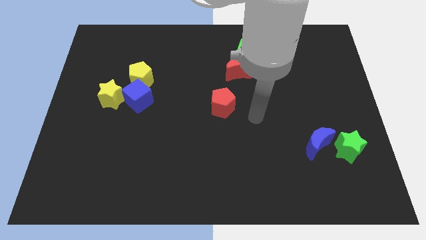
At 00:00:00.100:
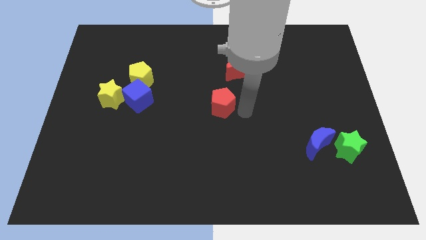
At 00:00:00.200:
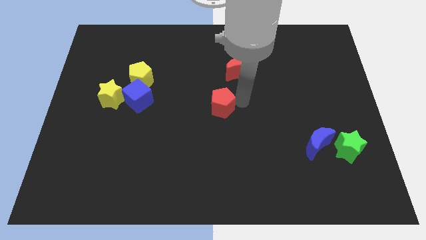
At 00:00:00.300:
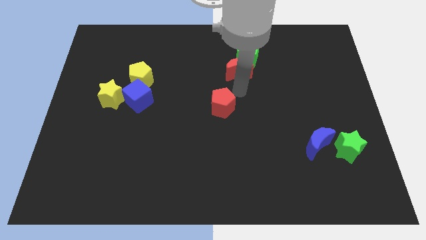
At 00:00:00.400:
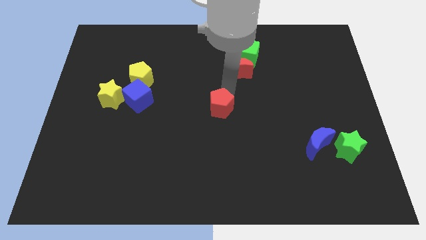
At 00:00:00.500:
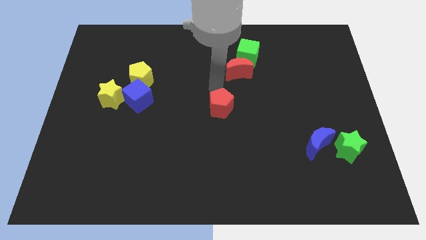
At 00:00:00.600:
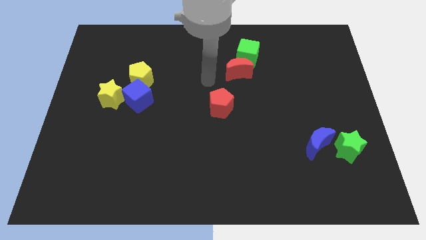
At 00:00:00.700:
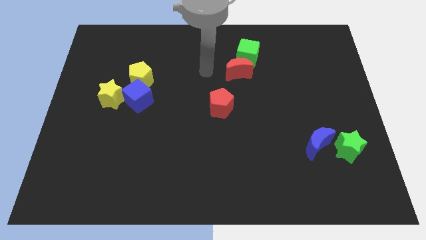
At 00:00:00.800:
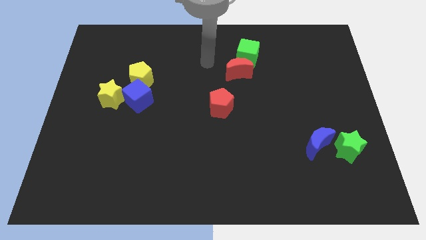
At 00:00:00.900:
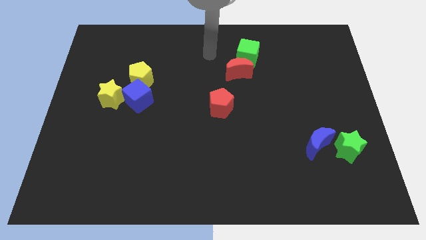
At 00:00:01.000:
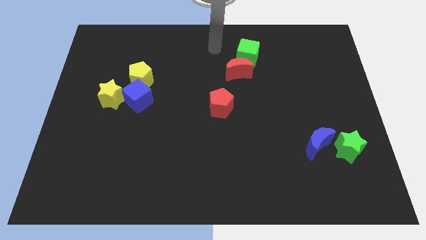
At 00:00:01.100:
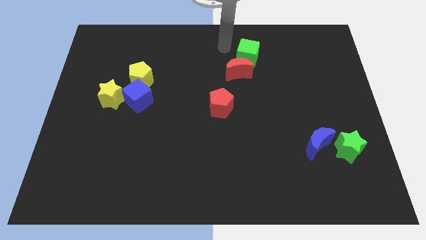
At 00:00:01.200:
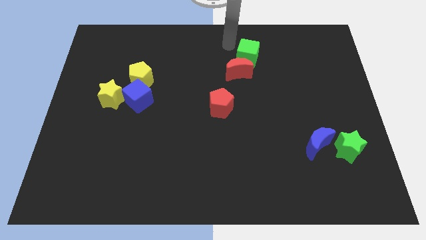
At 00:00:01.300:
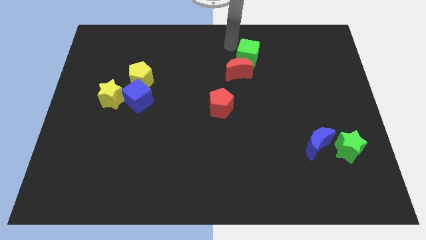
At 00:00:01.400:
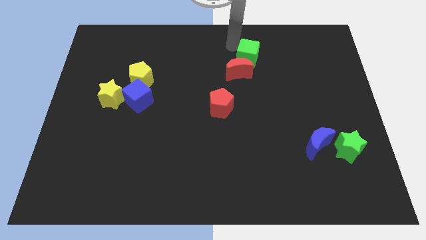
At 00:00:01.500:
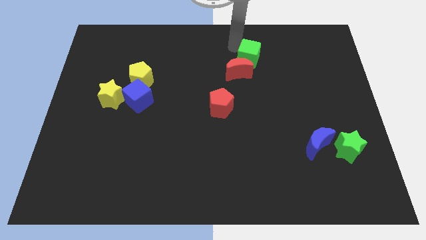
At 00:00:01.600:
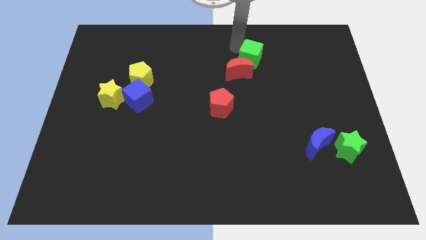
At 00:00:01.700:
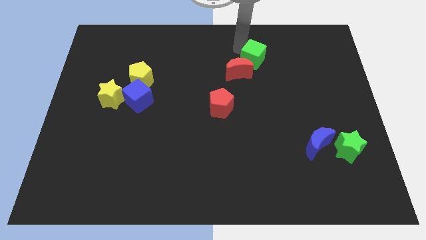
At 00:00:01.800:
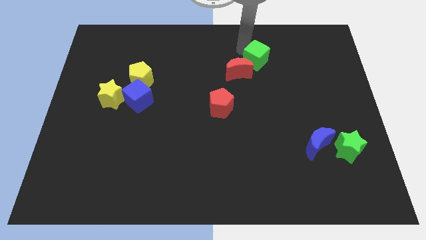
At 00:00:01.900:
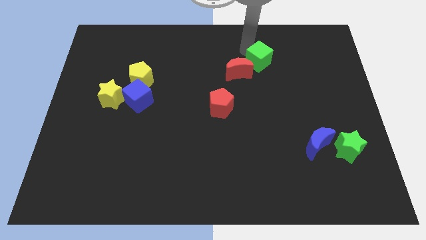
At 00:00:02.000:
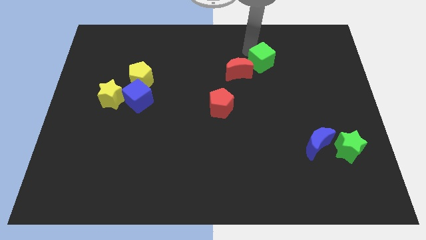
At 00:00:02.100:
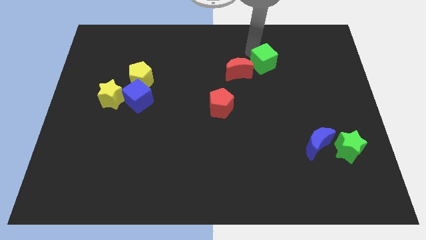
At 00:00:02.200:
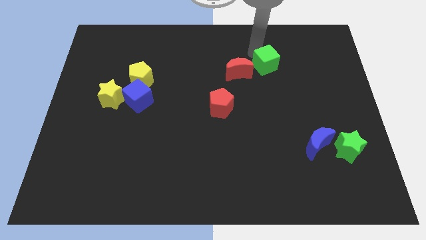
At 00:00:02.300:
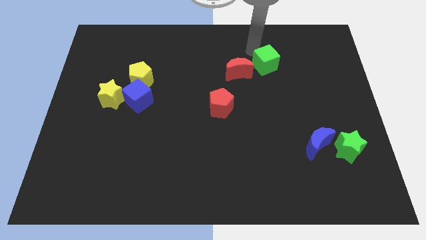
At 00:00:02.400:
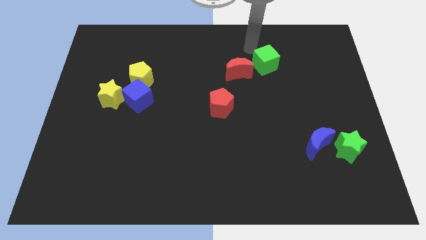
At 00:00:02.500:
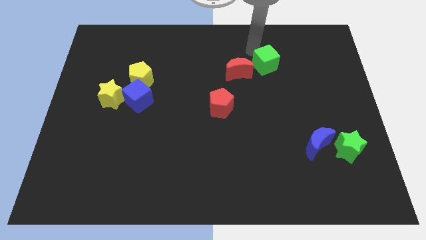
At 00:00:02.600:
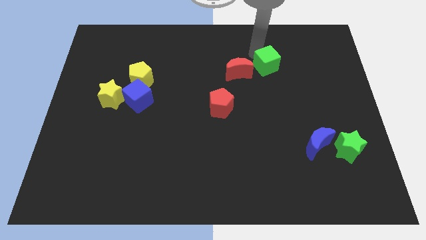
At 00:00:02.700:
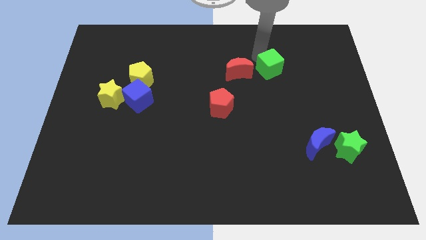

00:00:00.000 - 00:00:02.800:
push the green cube slightly down and then to the right

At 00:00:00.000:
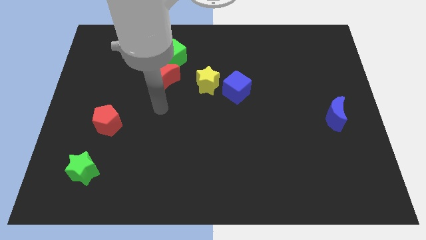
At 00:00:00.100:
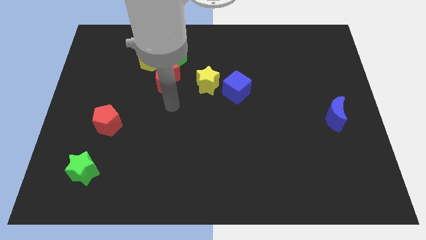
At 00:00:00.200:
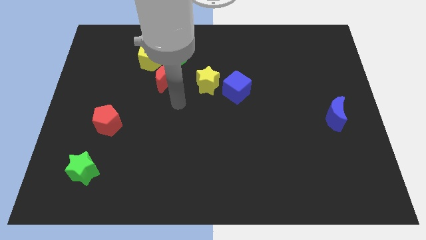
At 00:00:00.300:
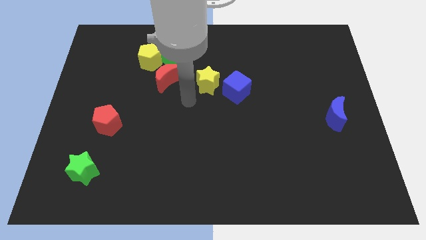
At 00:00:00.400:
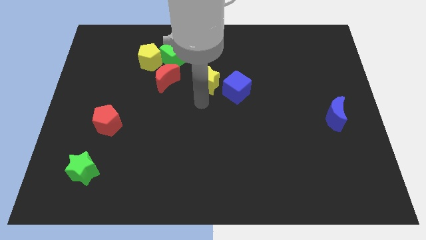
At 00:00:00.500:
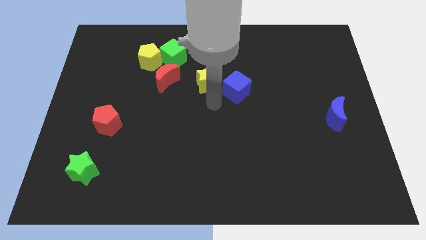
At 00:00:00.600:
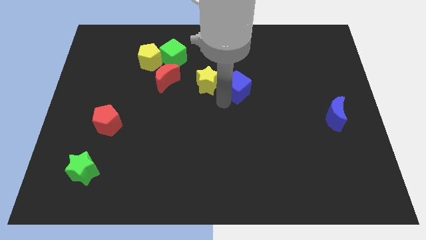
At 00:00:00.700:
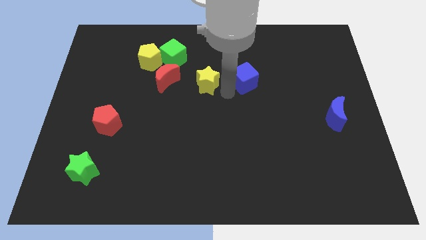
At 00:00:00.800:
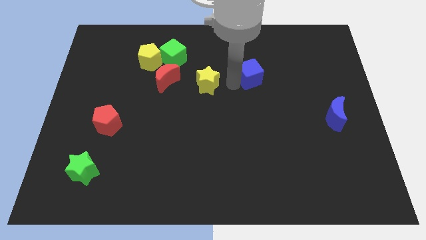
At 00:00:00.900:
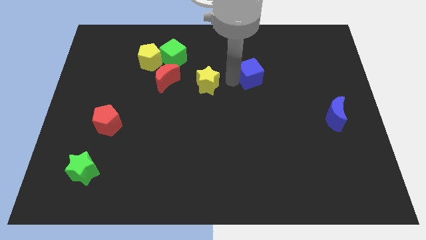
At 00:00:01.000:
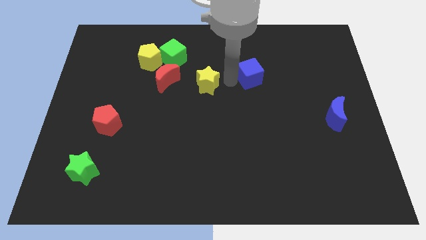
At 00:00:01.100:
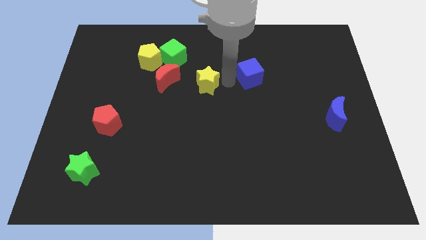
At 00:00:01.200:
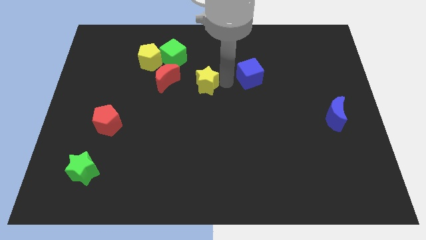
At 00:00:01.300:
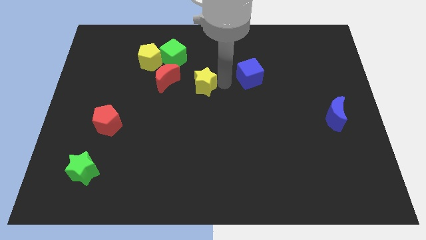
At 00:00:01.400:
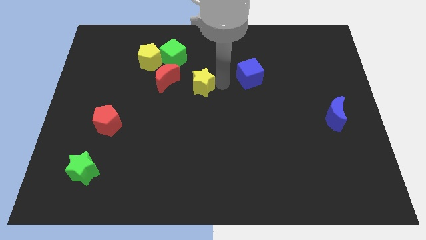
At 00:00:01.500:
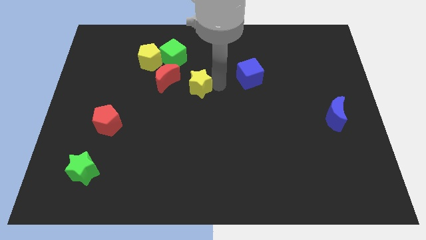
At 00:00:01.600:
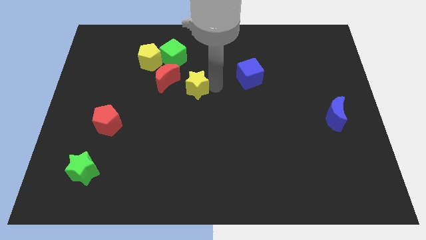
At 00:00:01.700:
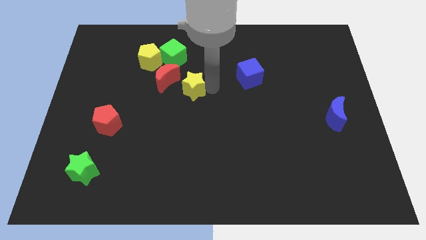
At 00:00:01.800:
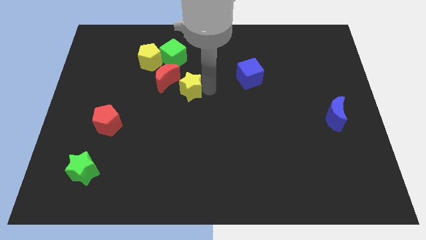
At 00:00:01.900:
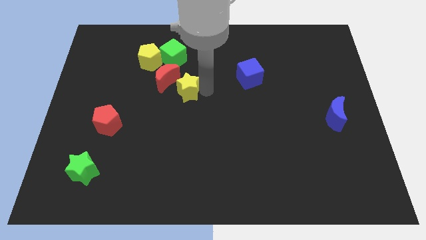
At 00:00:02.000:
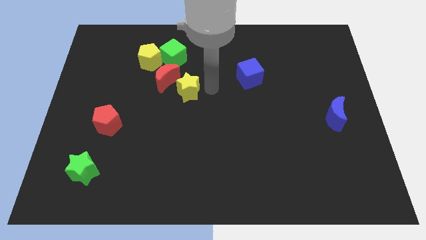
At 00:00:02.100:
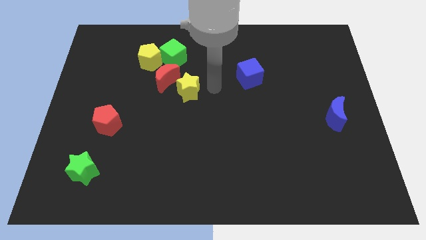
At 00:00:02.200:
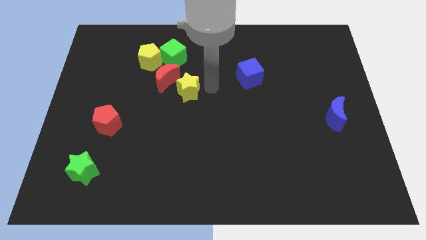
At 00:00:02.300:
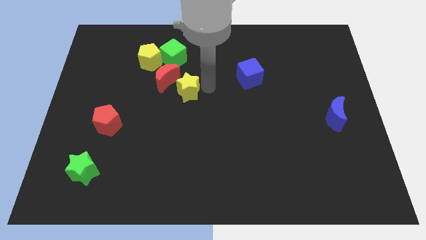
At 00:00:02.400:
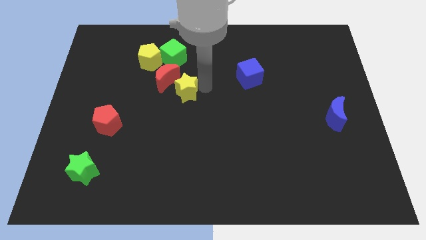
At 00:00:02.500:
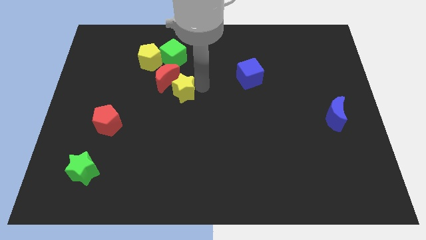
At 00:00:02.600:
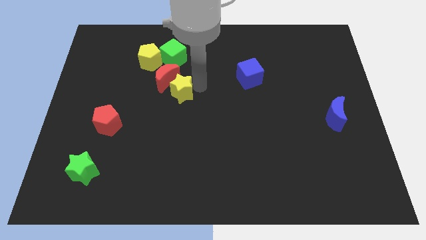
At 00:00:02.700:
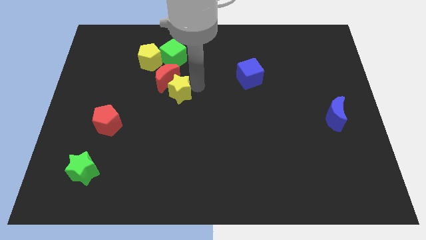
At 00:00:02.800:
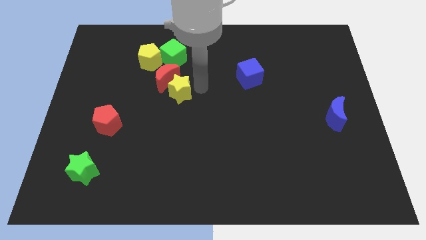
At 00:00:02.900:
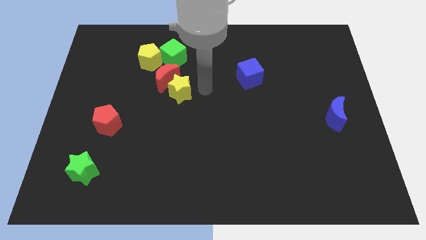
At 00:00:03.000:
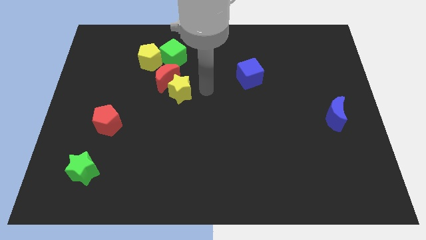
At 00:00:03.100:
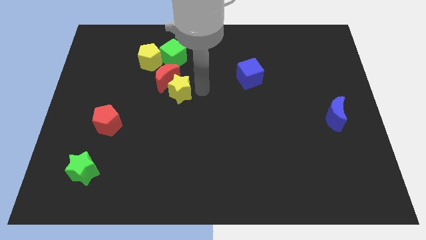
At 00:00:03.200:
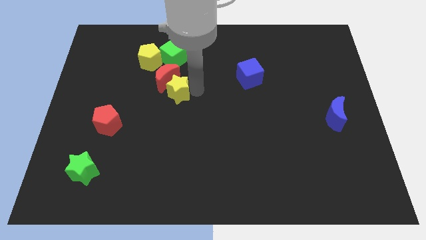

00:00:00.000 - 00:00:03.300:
slightly slide the yellow star to the left

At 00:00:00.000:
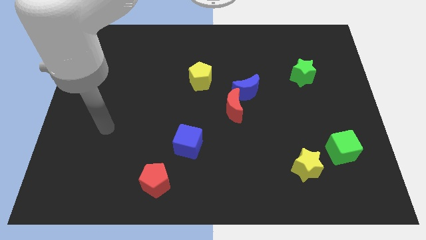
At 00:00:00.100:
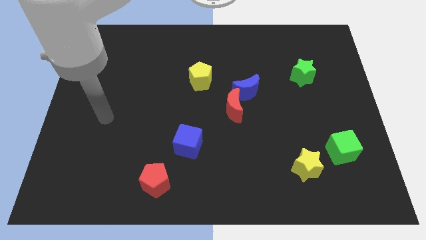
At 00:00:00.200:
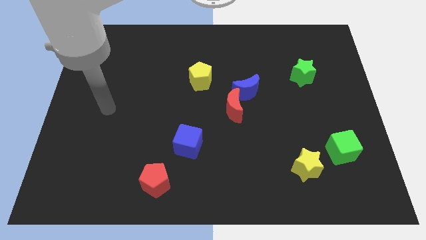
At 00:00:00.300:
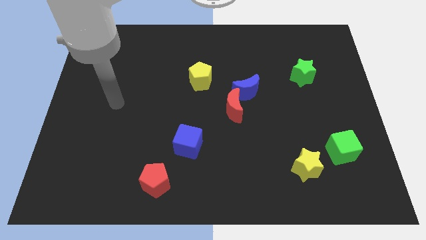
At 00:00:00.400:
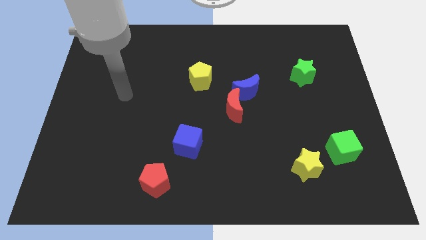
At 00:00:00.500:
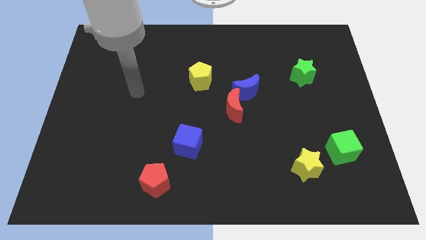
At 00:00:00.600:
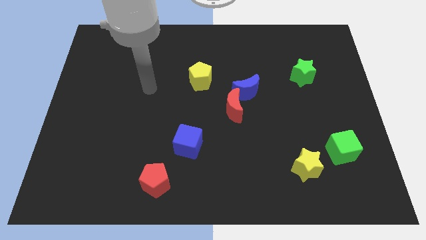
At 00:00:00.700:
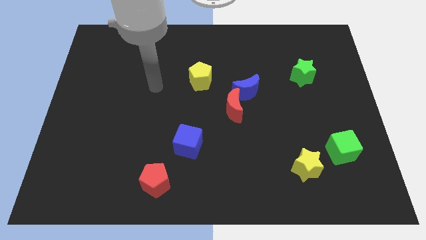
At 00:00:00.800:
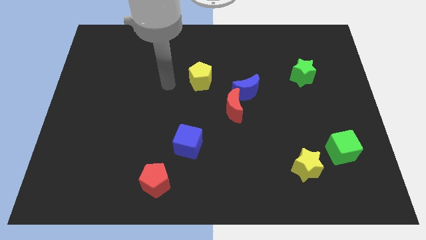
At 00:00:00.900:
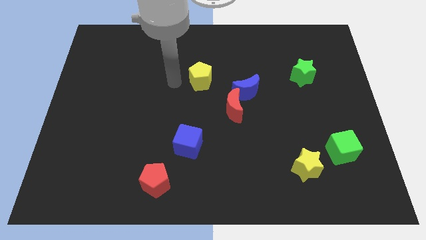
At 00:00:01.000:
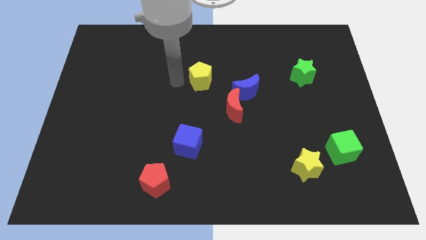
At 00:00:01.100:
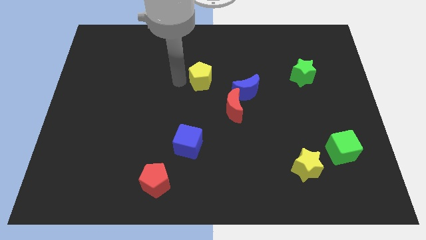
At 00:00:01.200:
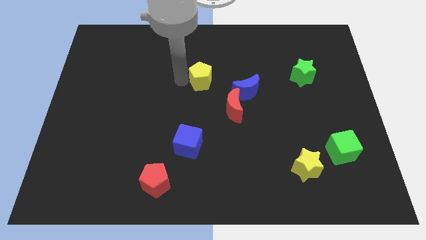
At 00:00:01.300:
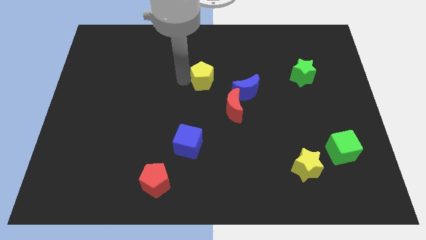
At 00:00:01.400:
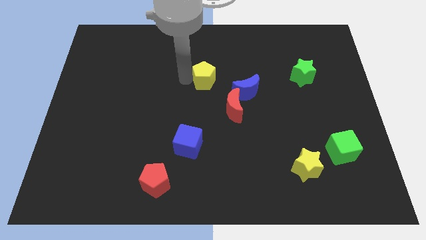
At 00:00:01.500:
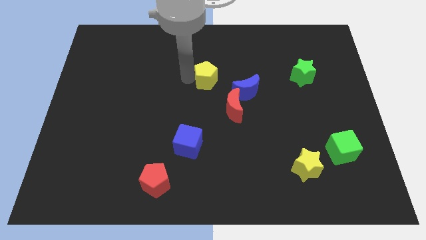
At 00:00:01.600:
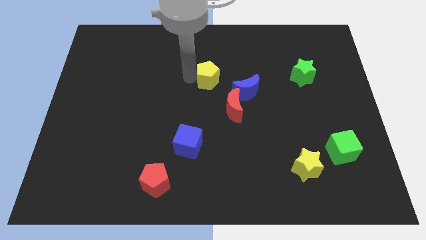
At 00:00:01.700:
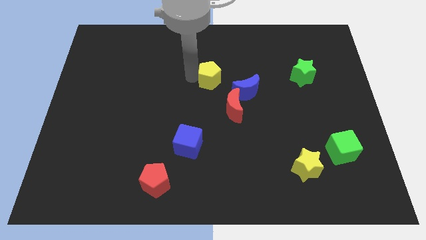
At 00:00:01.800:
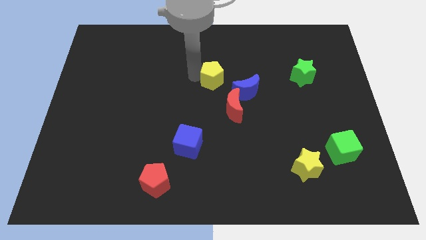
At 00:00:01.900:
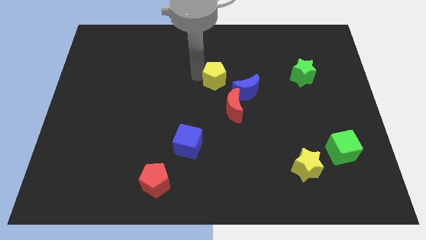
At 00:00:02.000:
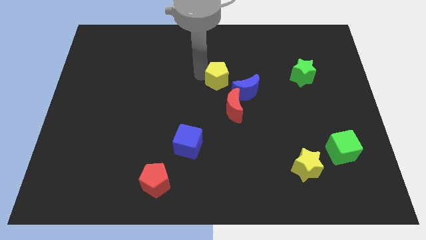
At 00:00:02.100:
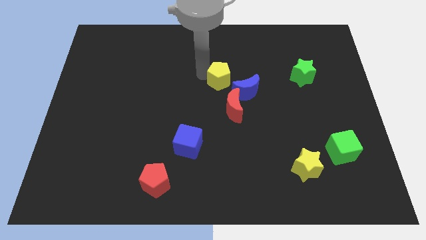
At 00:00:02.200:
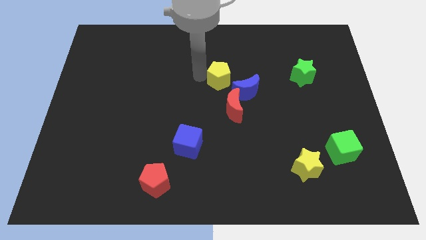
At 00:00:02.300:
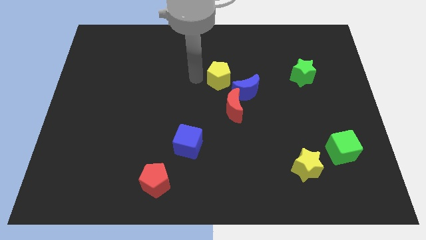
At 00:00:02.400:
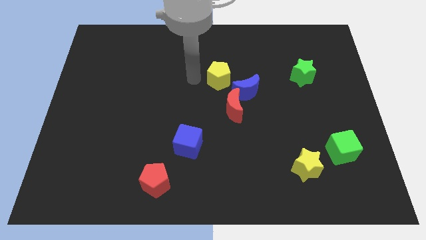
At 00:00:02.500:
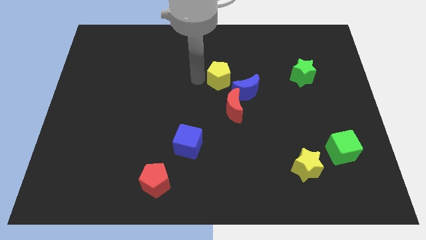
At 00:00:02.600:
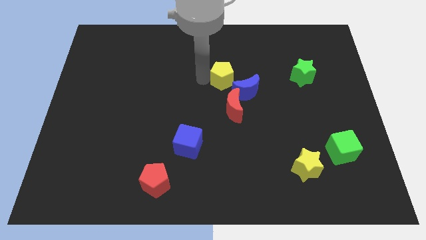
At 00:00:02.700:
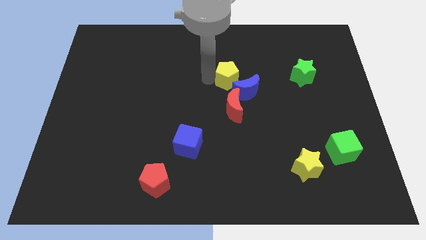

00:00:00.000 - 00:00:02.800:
push the yellow pentagon right somewhat
